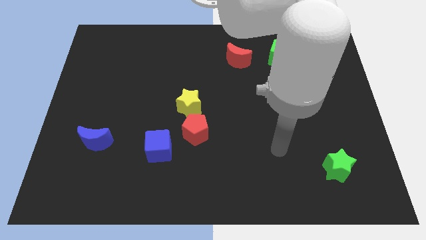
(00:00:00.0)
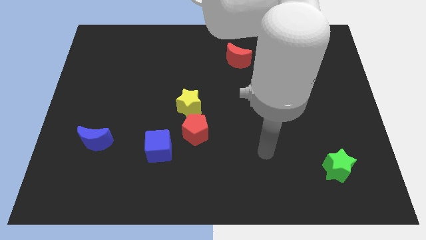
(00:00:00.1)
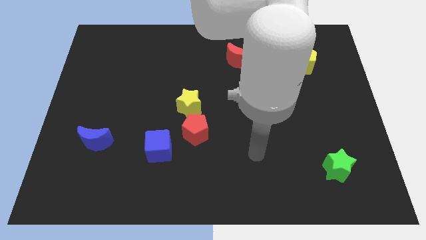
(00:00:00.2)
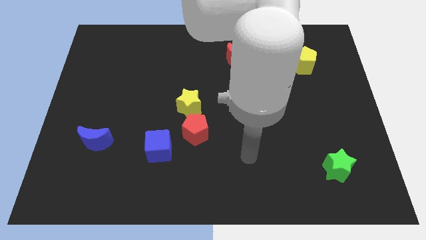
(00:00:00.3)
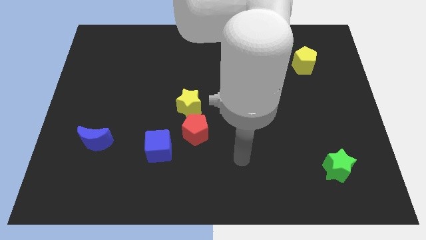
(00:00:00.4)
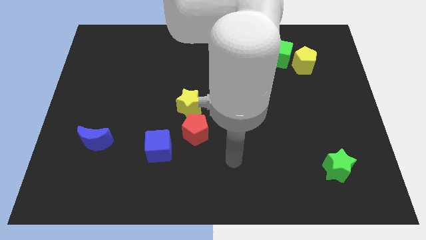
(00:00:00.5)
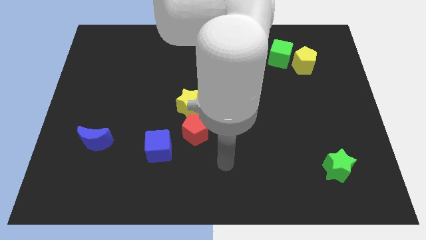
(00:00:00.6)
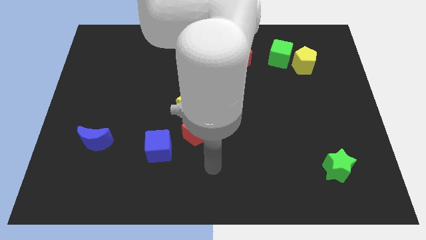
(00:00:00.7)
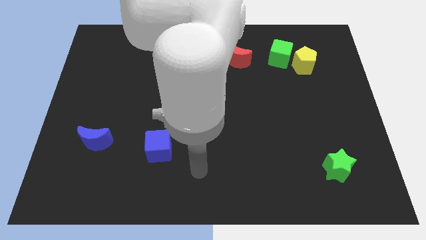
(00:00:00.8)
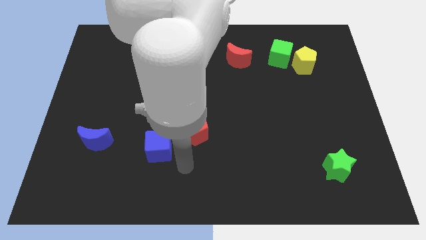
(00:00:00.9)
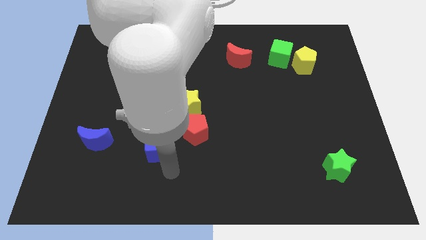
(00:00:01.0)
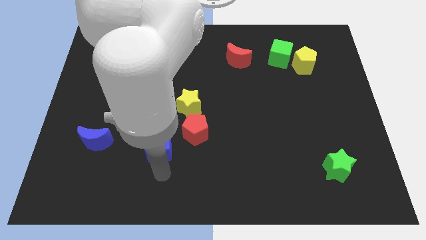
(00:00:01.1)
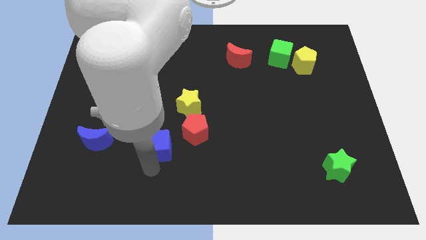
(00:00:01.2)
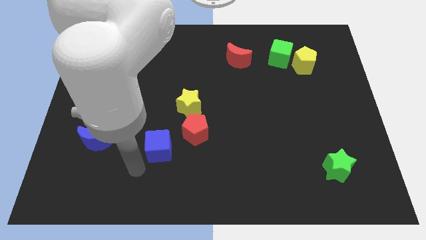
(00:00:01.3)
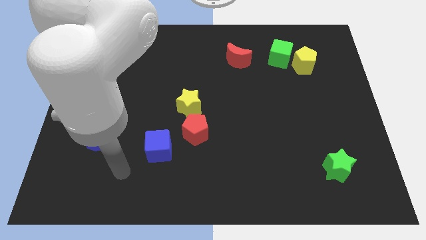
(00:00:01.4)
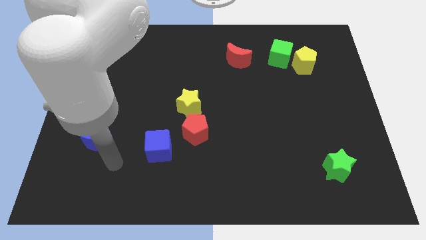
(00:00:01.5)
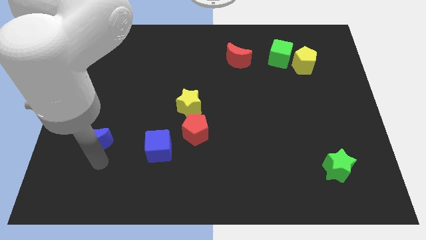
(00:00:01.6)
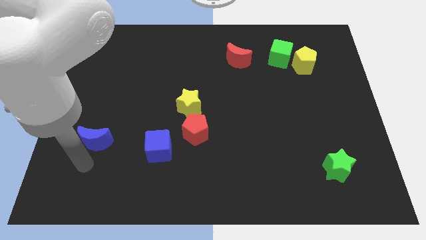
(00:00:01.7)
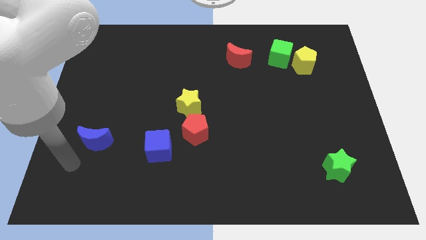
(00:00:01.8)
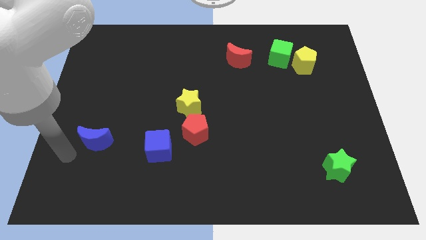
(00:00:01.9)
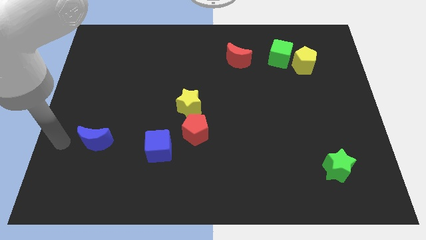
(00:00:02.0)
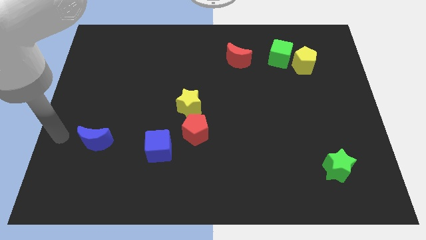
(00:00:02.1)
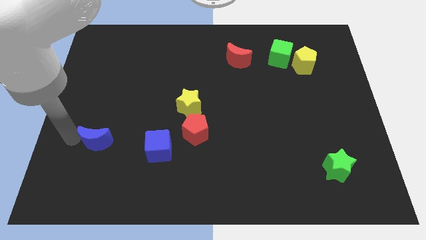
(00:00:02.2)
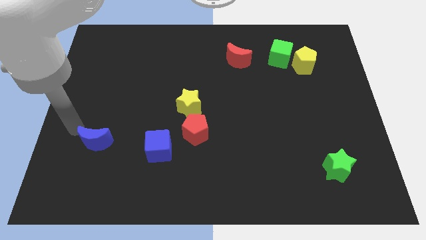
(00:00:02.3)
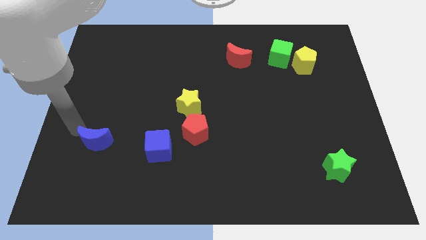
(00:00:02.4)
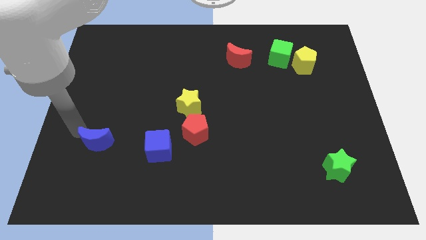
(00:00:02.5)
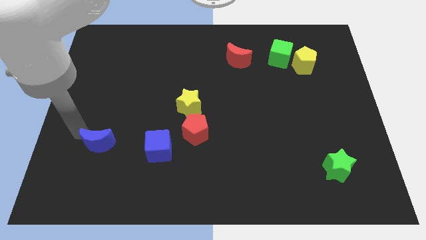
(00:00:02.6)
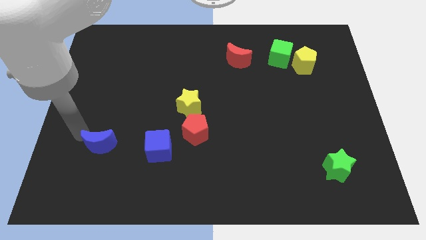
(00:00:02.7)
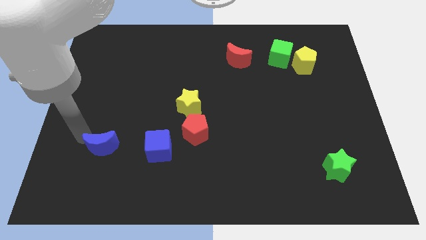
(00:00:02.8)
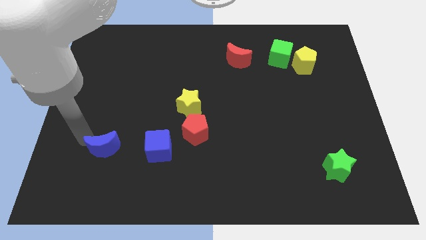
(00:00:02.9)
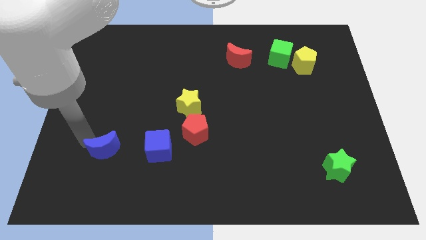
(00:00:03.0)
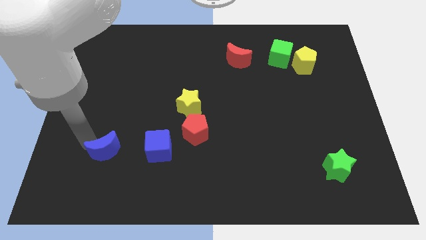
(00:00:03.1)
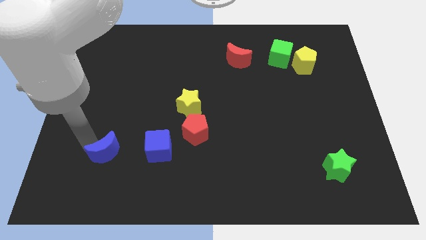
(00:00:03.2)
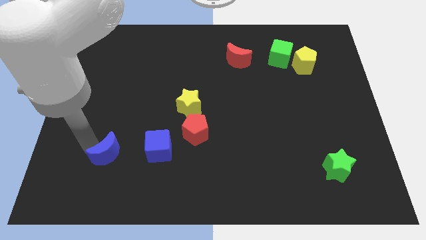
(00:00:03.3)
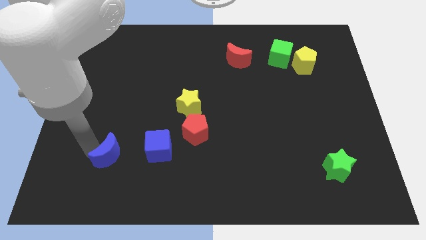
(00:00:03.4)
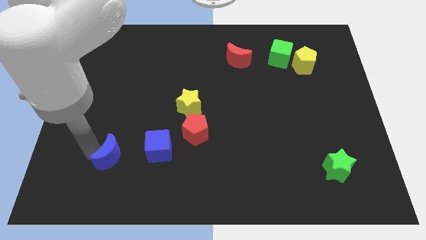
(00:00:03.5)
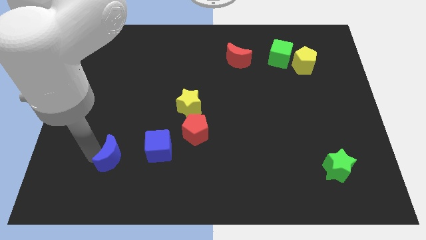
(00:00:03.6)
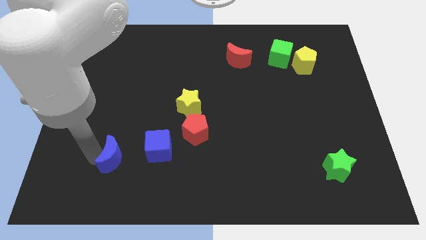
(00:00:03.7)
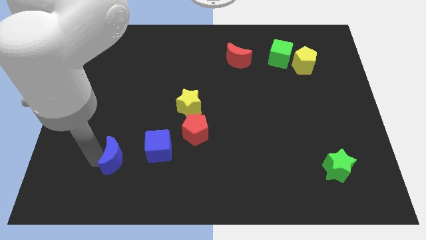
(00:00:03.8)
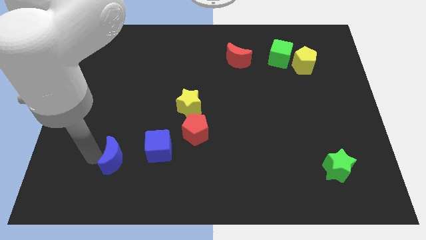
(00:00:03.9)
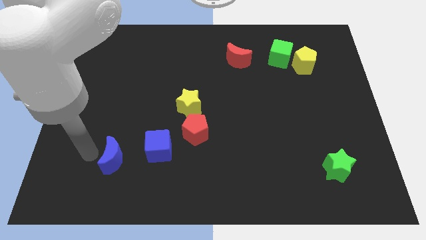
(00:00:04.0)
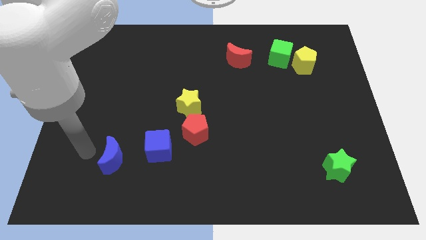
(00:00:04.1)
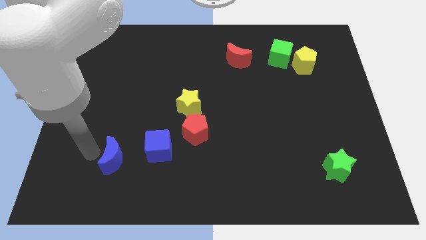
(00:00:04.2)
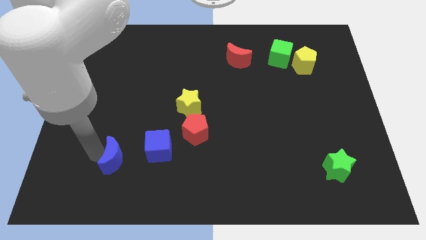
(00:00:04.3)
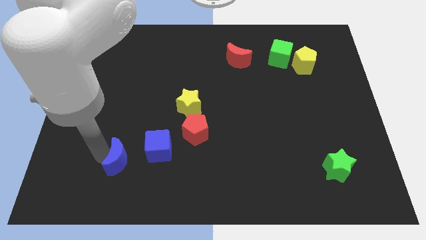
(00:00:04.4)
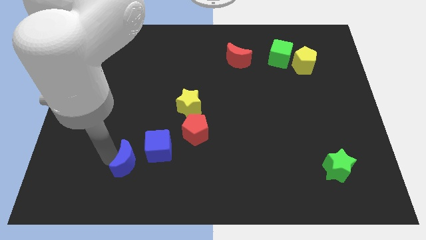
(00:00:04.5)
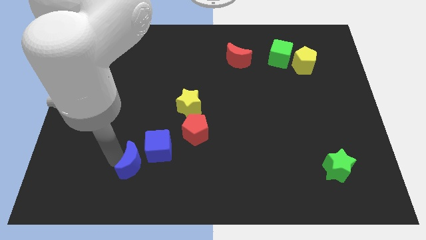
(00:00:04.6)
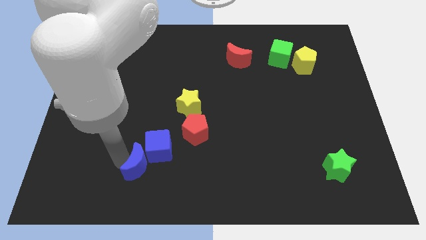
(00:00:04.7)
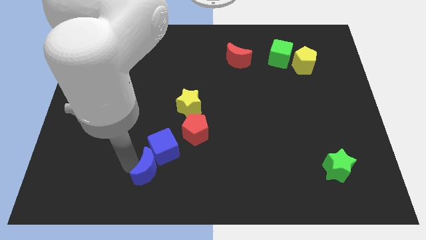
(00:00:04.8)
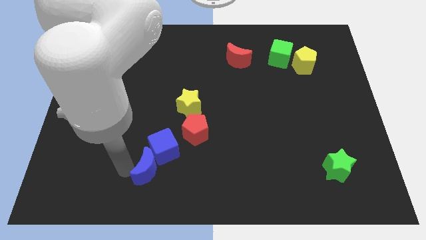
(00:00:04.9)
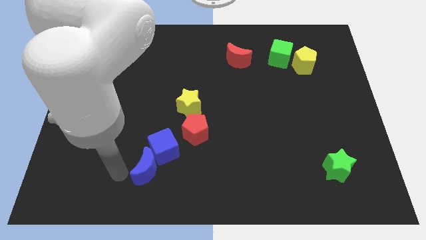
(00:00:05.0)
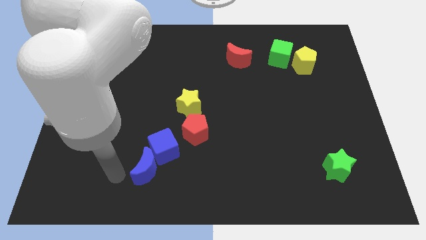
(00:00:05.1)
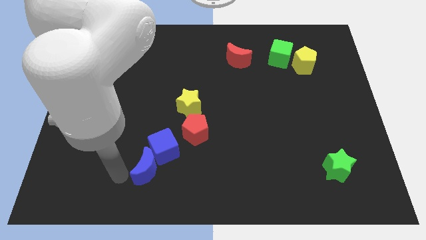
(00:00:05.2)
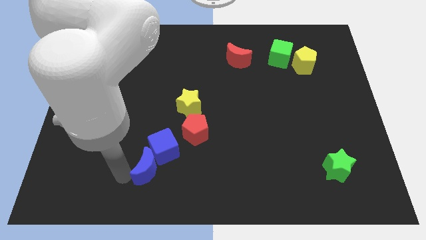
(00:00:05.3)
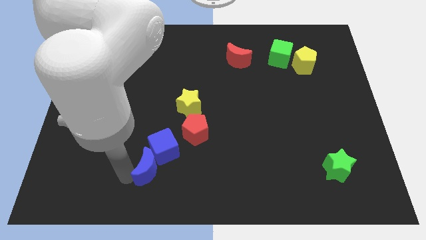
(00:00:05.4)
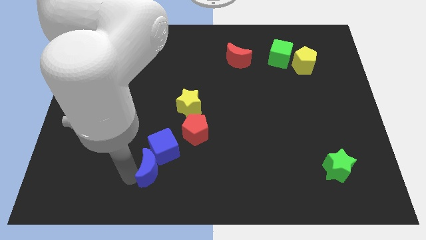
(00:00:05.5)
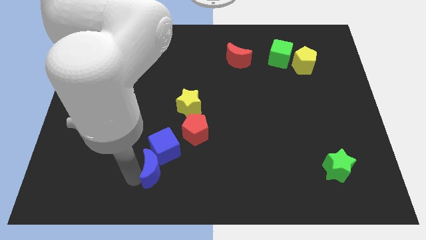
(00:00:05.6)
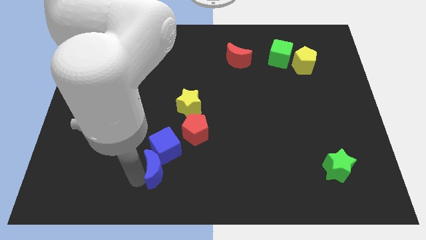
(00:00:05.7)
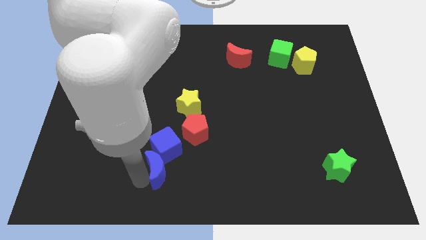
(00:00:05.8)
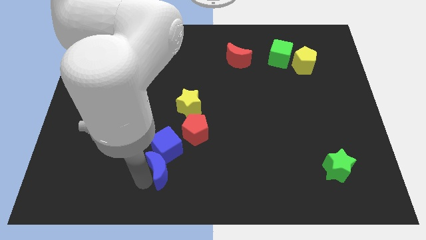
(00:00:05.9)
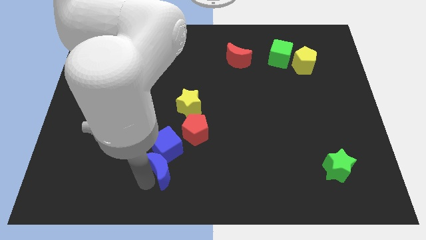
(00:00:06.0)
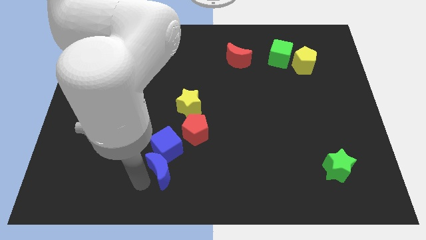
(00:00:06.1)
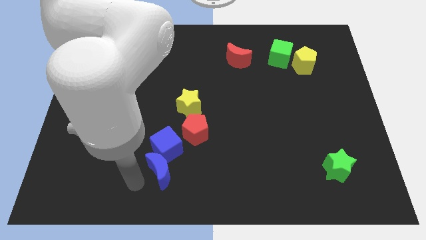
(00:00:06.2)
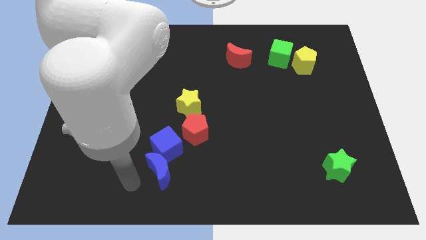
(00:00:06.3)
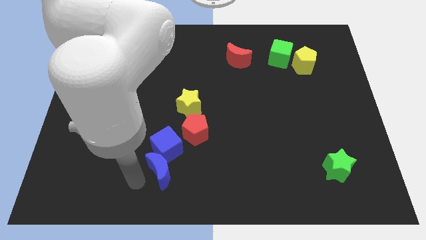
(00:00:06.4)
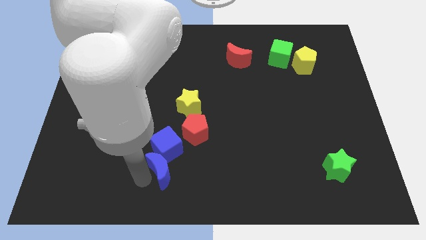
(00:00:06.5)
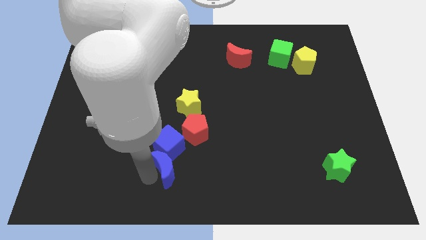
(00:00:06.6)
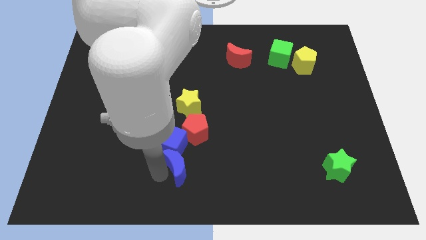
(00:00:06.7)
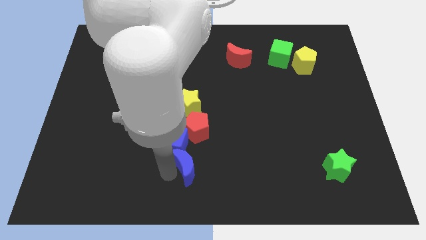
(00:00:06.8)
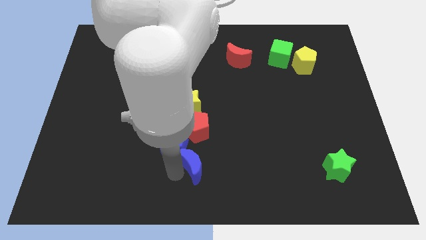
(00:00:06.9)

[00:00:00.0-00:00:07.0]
move the blue moon right

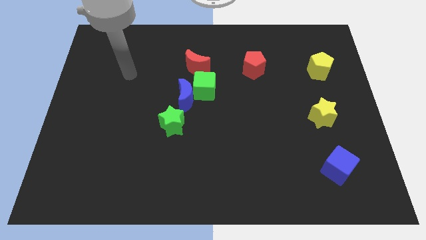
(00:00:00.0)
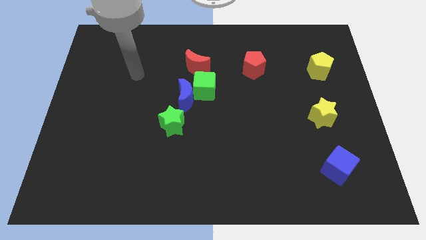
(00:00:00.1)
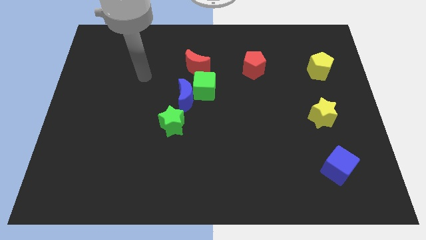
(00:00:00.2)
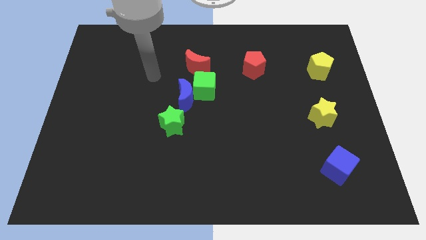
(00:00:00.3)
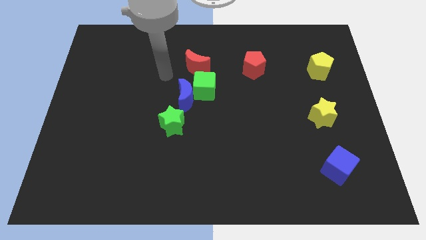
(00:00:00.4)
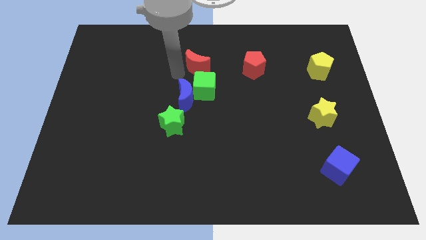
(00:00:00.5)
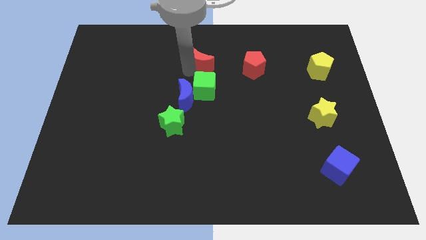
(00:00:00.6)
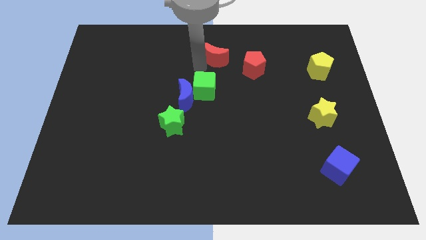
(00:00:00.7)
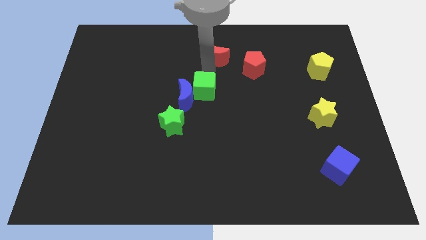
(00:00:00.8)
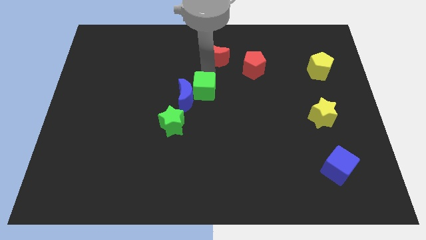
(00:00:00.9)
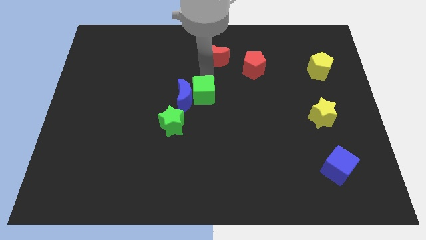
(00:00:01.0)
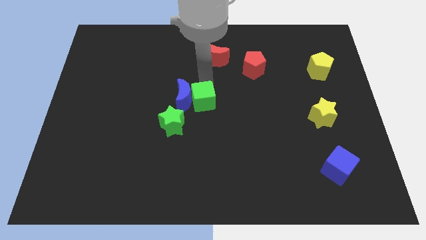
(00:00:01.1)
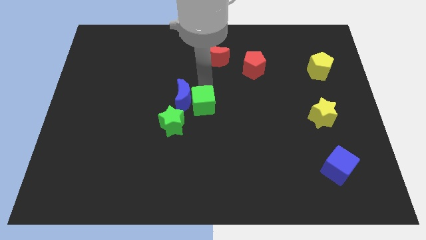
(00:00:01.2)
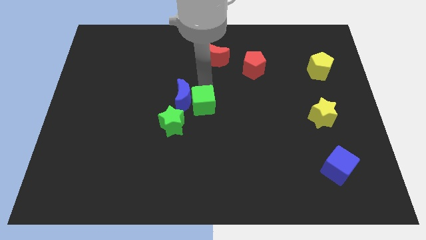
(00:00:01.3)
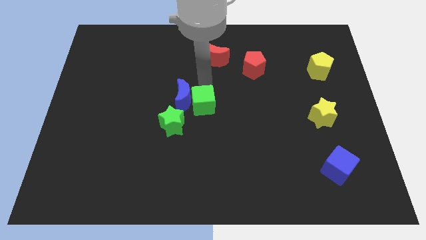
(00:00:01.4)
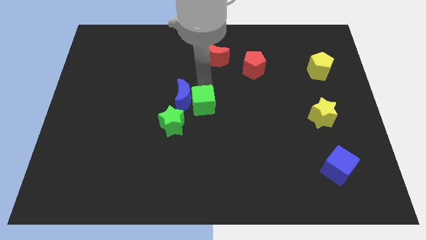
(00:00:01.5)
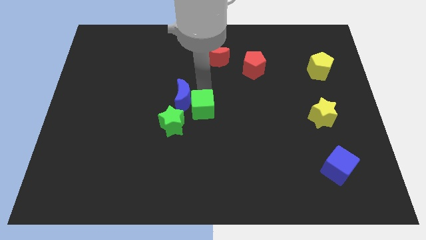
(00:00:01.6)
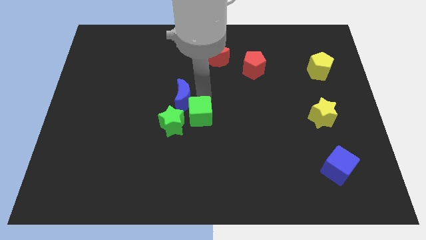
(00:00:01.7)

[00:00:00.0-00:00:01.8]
slightly move the green cube down
